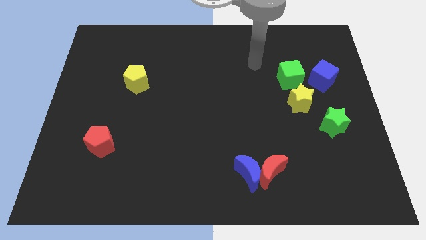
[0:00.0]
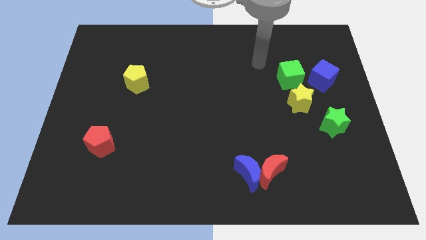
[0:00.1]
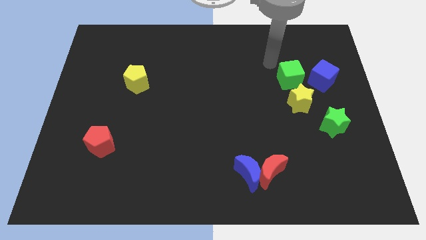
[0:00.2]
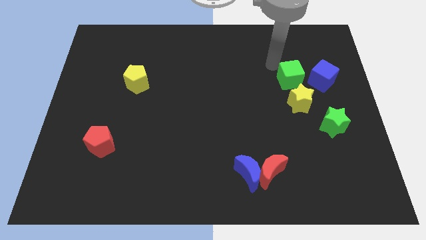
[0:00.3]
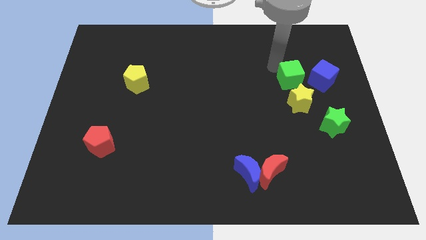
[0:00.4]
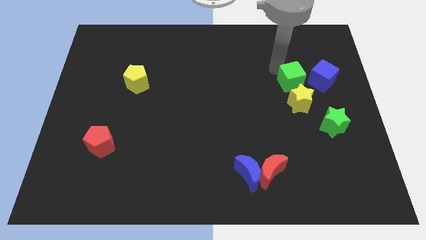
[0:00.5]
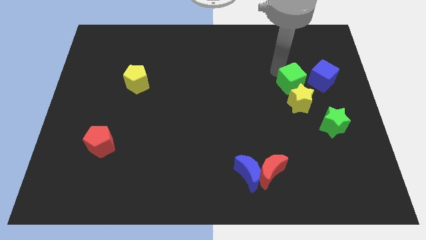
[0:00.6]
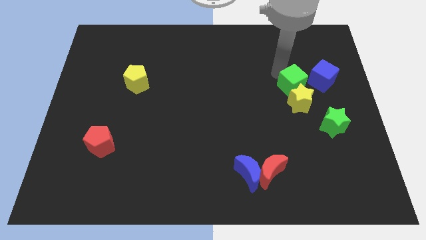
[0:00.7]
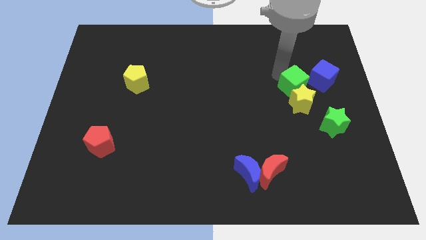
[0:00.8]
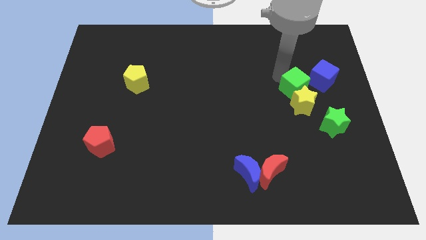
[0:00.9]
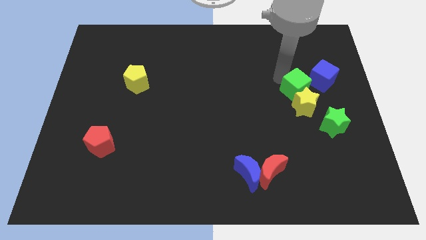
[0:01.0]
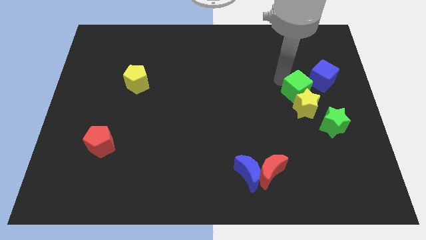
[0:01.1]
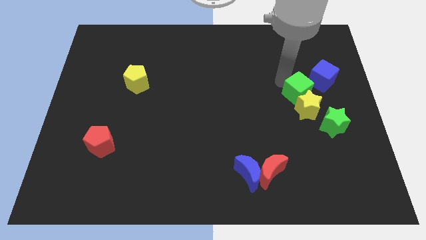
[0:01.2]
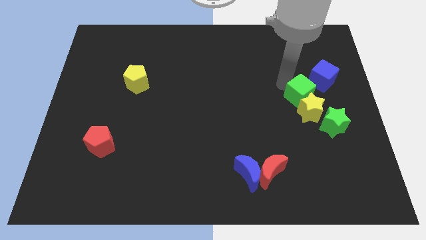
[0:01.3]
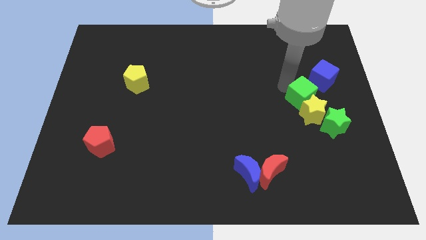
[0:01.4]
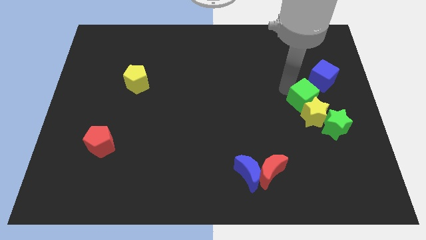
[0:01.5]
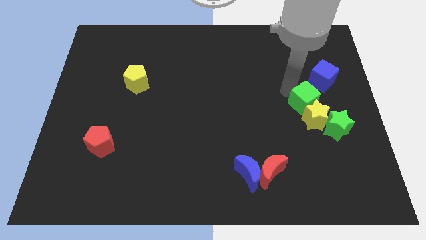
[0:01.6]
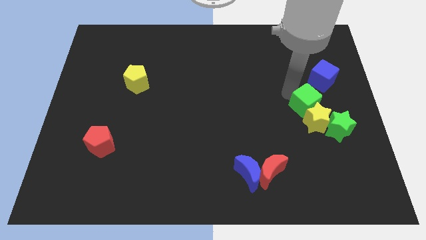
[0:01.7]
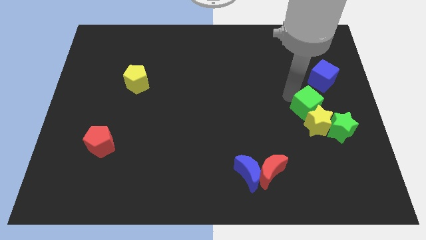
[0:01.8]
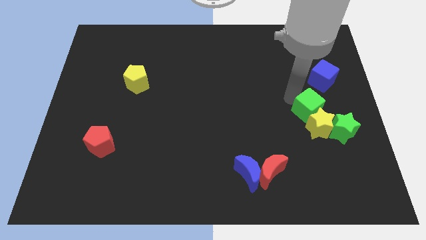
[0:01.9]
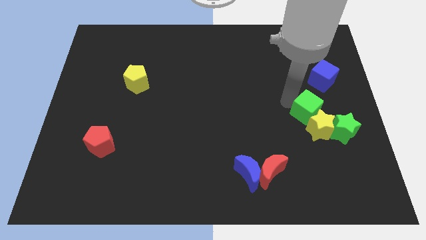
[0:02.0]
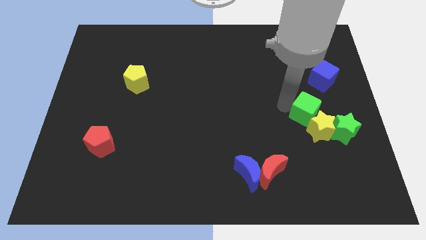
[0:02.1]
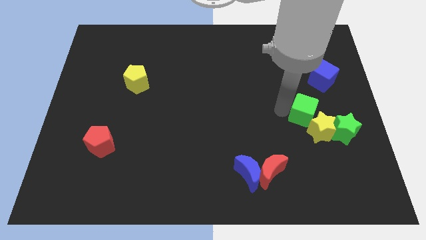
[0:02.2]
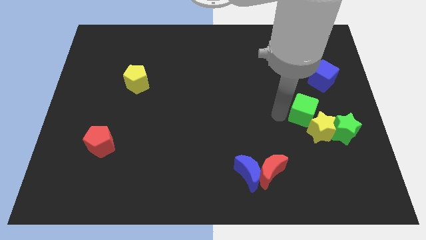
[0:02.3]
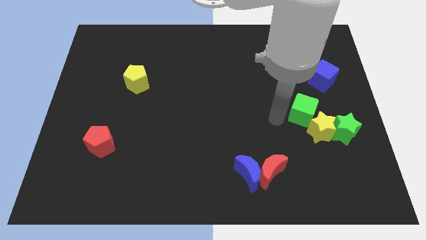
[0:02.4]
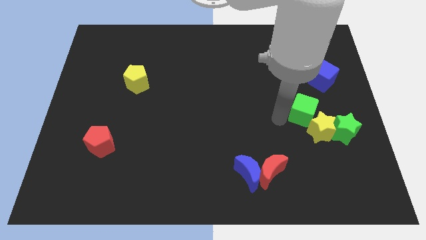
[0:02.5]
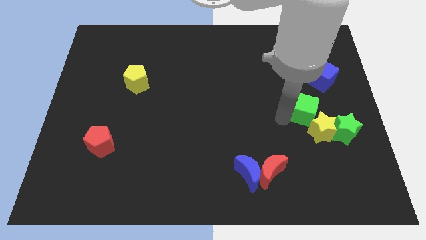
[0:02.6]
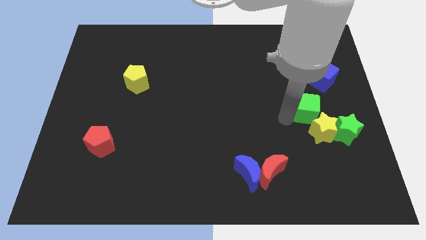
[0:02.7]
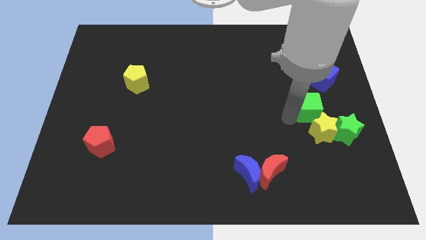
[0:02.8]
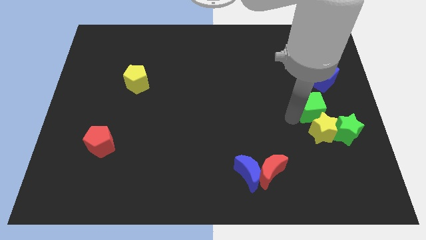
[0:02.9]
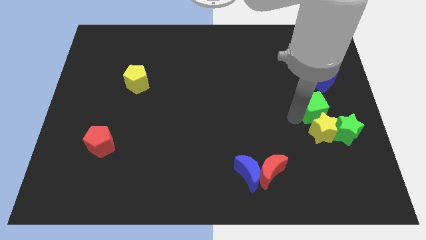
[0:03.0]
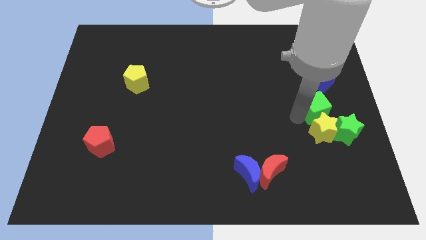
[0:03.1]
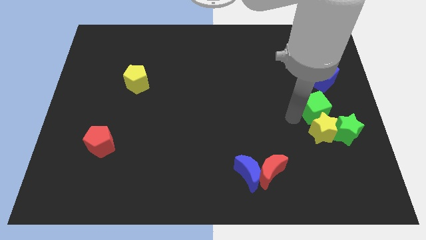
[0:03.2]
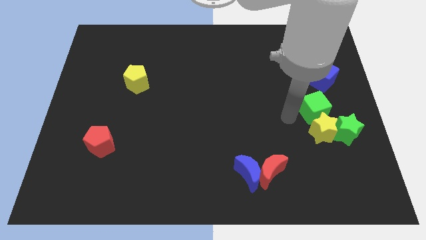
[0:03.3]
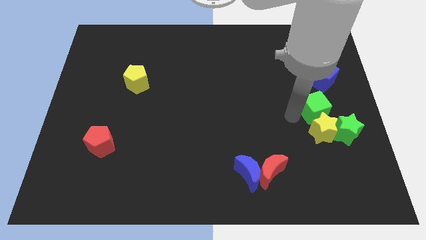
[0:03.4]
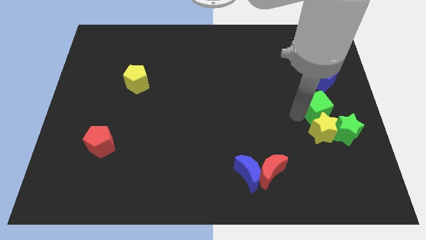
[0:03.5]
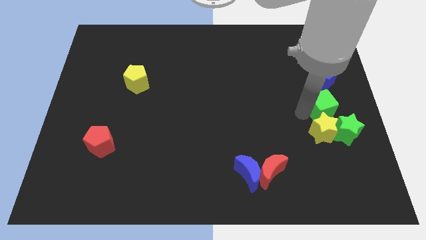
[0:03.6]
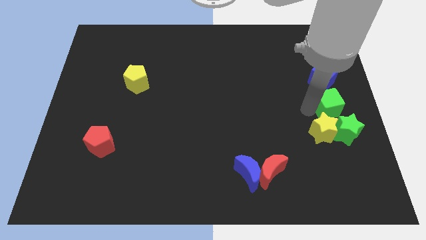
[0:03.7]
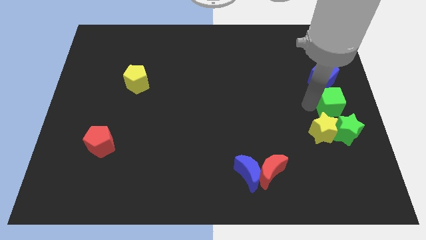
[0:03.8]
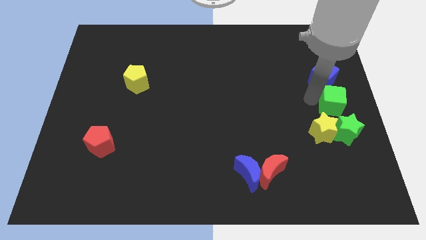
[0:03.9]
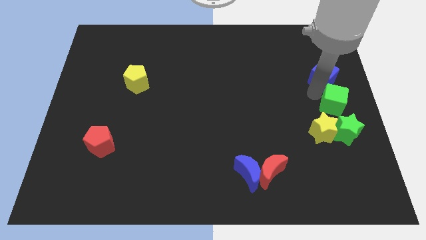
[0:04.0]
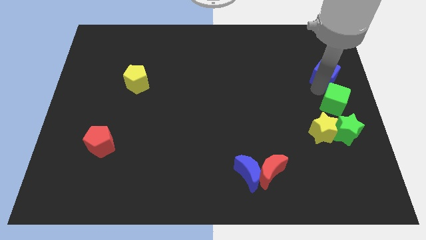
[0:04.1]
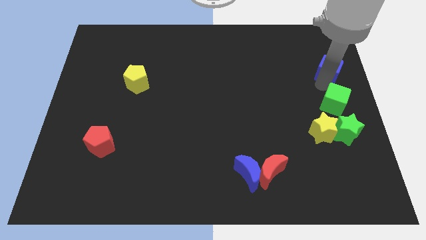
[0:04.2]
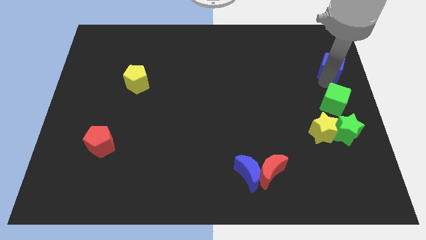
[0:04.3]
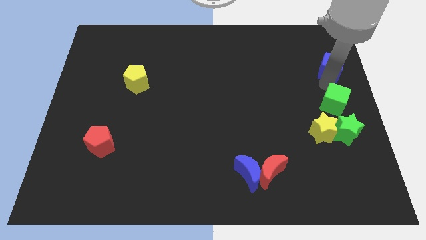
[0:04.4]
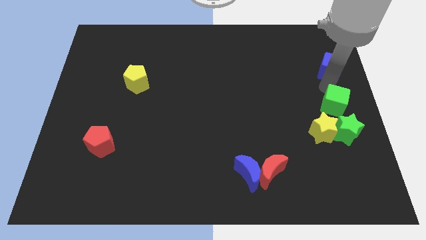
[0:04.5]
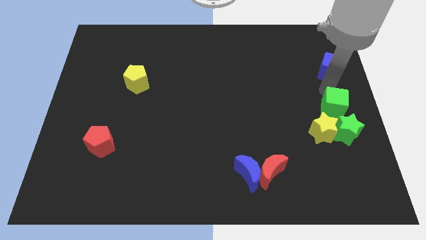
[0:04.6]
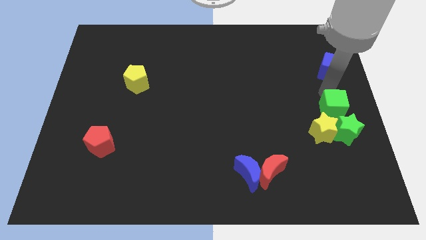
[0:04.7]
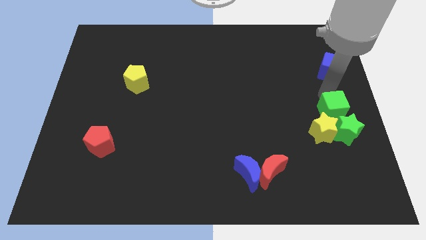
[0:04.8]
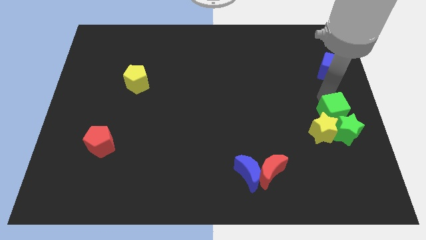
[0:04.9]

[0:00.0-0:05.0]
slide the green cube next to the green star

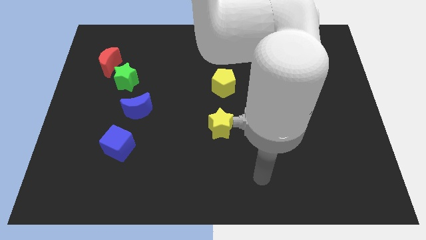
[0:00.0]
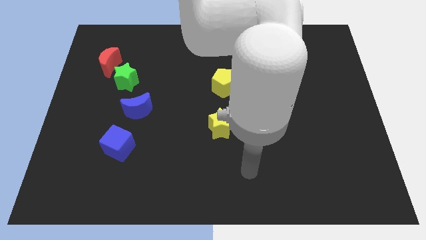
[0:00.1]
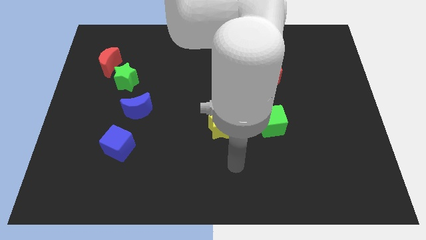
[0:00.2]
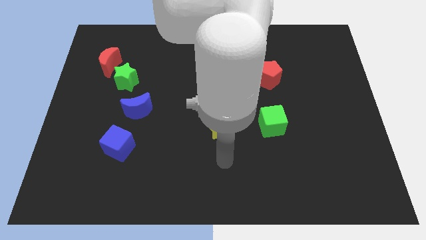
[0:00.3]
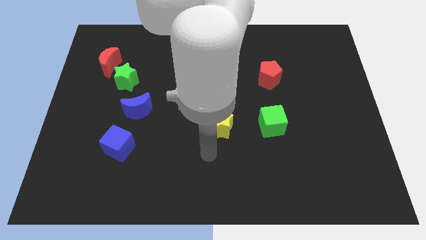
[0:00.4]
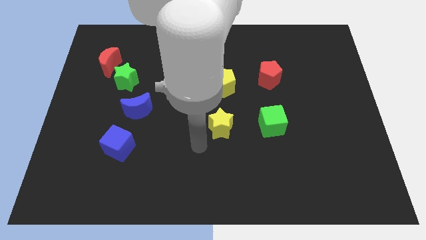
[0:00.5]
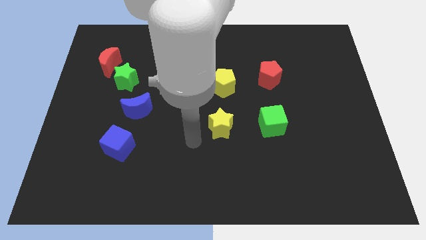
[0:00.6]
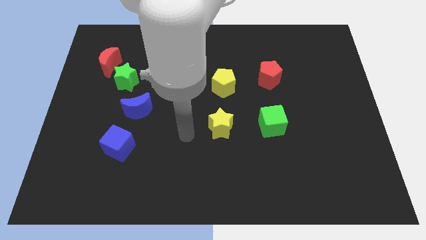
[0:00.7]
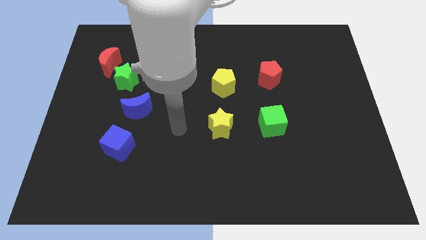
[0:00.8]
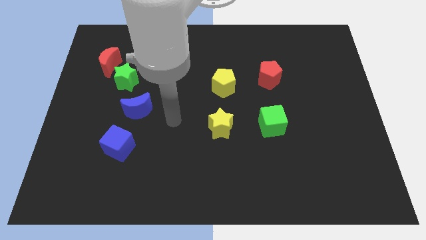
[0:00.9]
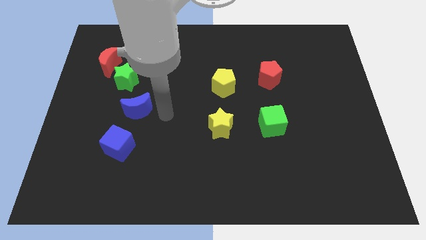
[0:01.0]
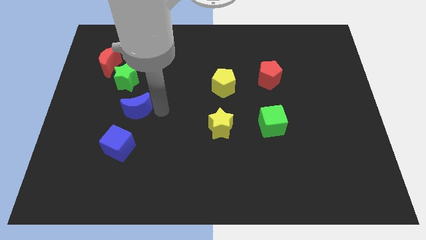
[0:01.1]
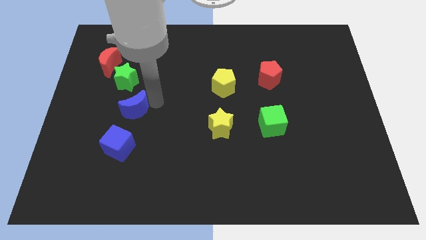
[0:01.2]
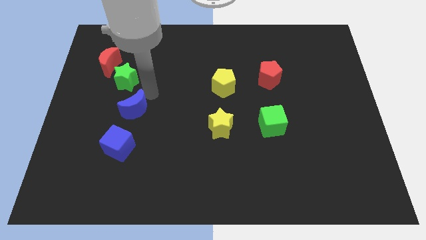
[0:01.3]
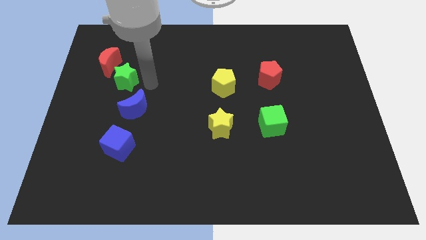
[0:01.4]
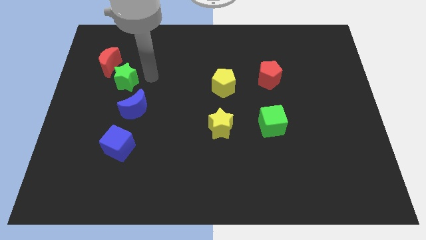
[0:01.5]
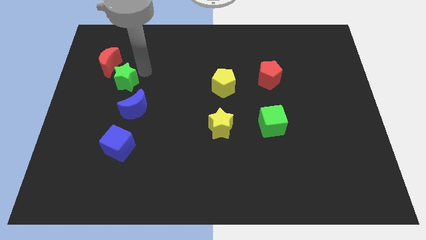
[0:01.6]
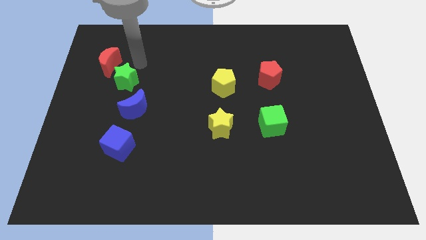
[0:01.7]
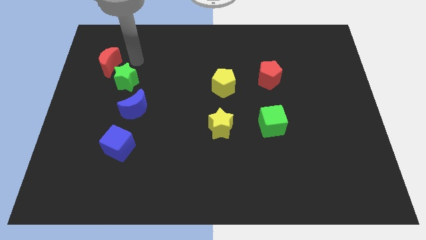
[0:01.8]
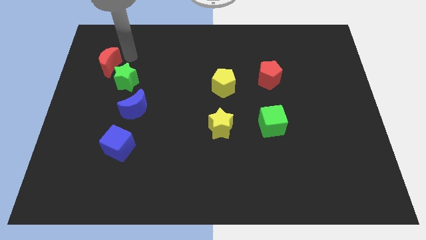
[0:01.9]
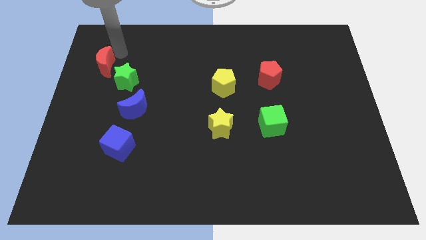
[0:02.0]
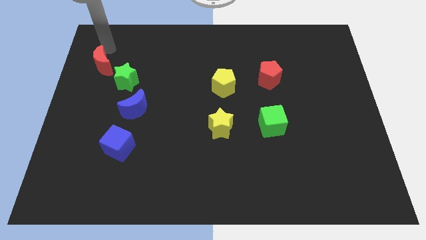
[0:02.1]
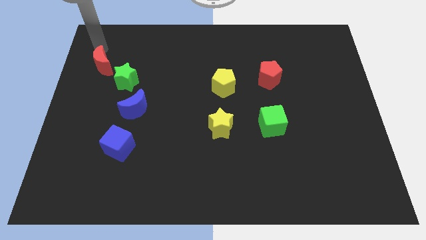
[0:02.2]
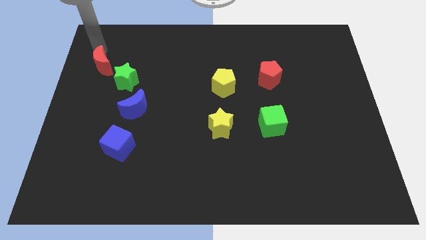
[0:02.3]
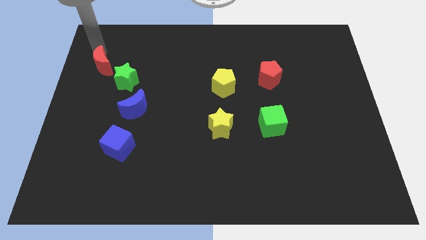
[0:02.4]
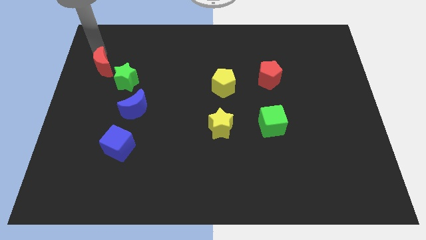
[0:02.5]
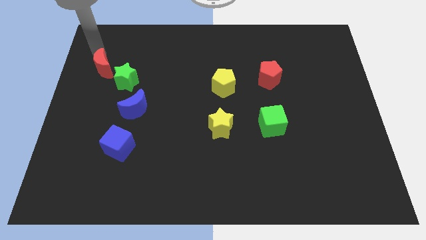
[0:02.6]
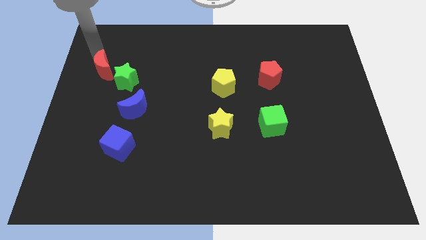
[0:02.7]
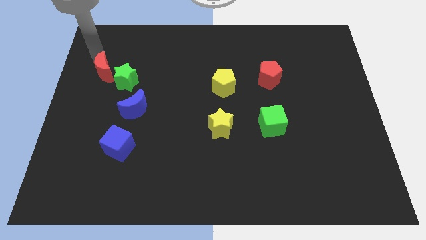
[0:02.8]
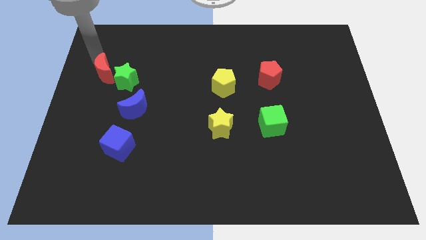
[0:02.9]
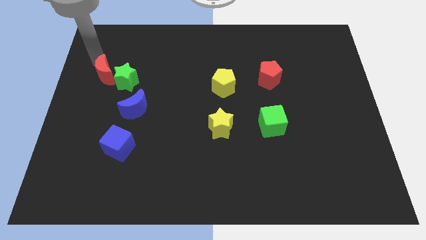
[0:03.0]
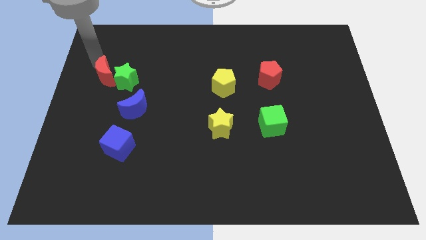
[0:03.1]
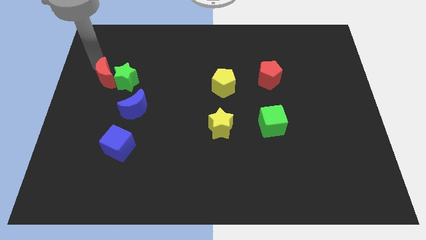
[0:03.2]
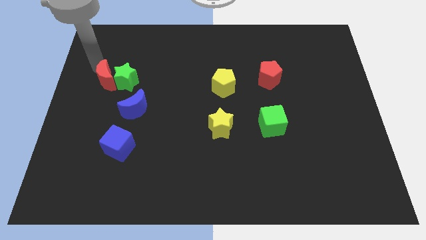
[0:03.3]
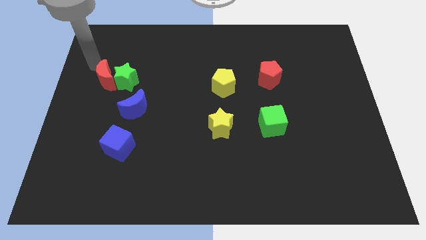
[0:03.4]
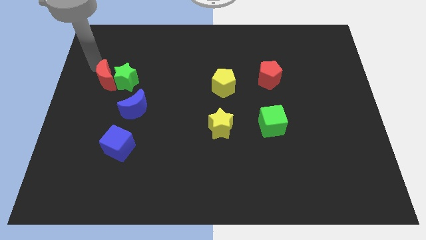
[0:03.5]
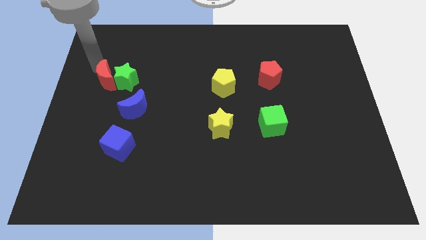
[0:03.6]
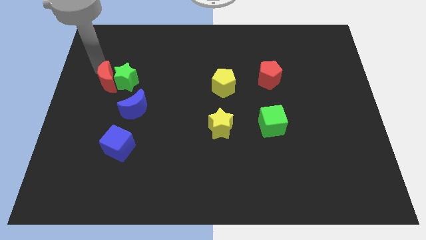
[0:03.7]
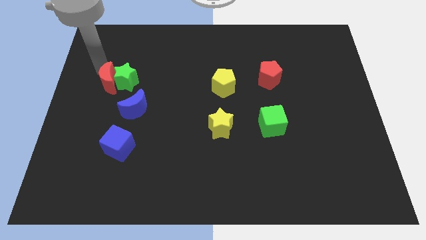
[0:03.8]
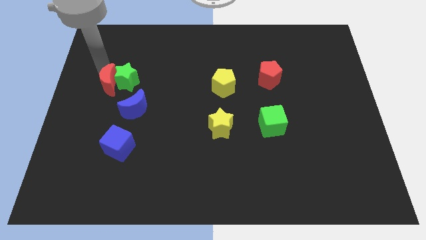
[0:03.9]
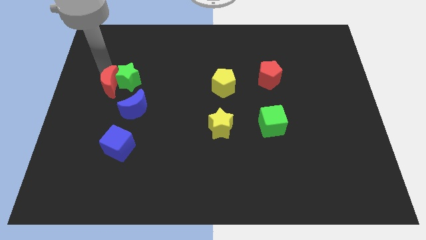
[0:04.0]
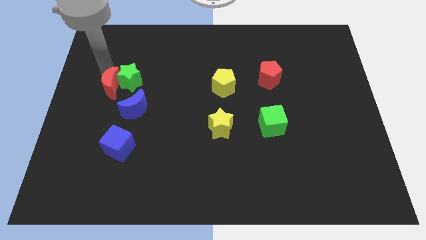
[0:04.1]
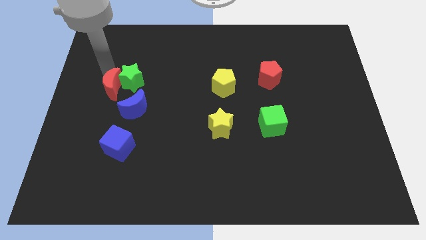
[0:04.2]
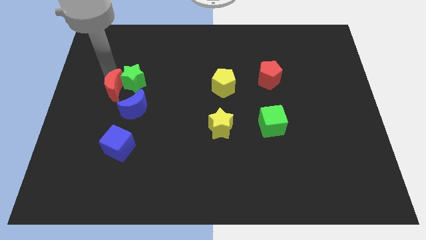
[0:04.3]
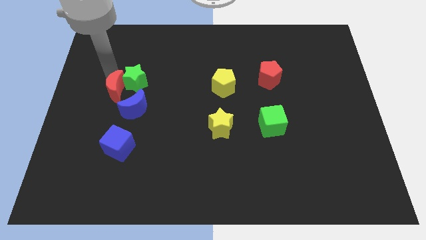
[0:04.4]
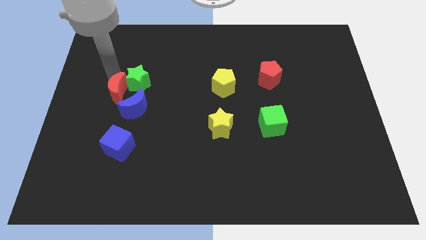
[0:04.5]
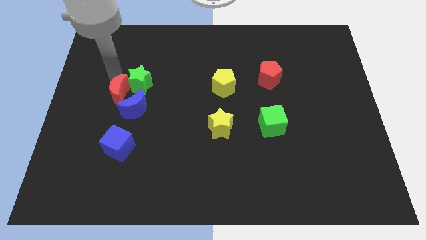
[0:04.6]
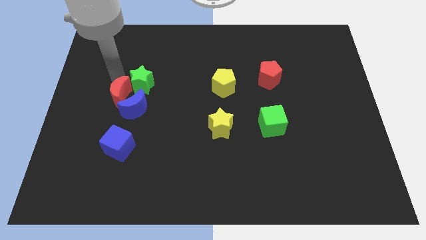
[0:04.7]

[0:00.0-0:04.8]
move the red moon to the blue moon
